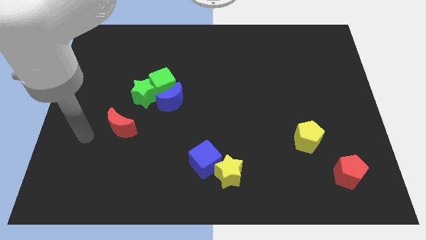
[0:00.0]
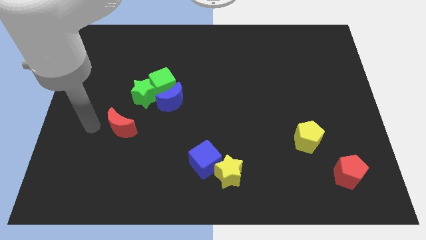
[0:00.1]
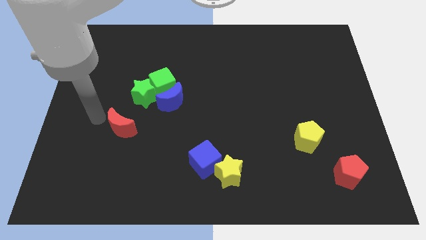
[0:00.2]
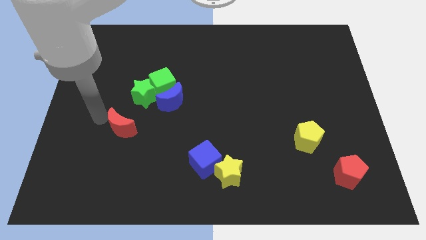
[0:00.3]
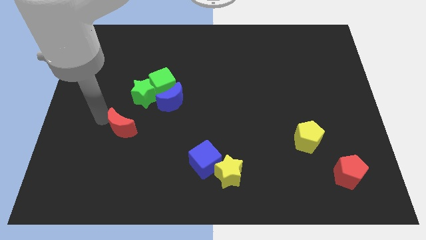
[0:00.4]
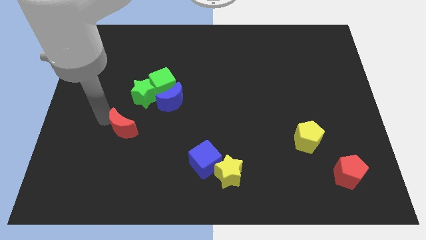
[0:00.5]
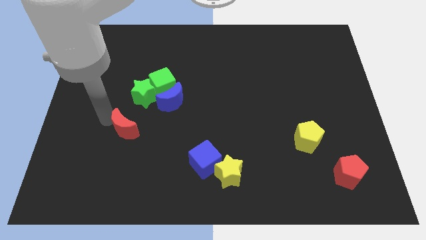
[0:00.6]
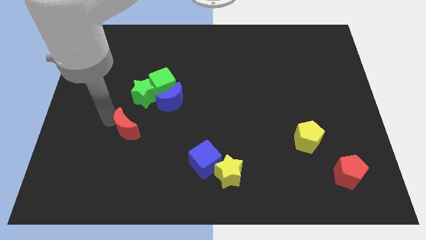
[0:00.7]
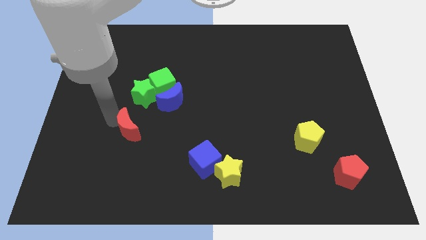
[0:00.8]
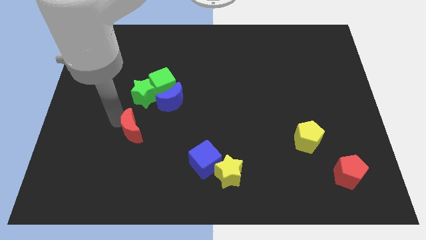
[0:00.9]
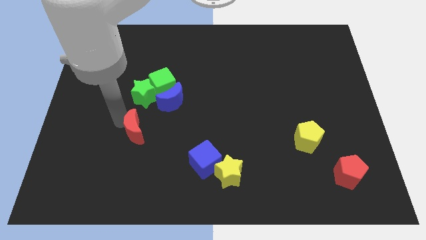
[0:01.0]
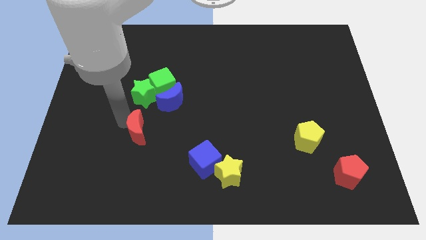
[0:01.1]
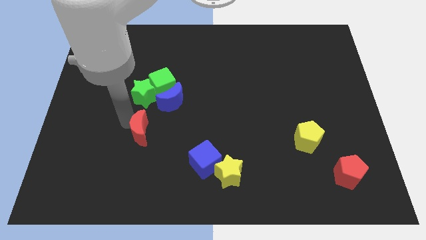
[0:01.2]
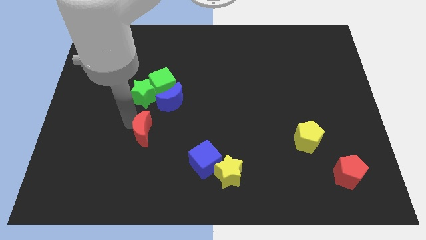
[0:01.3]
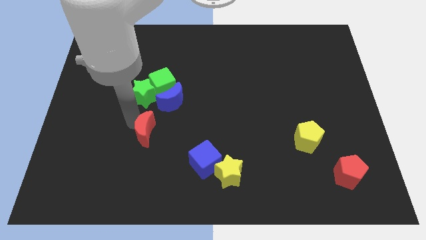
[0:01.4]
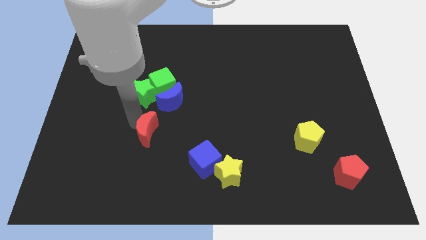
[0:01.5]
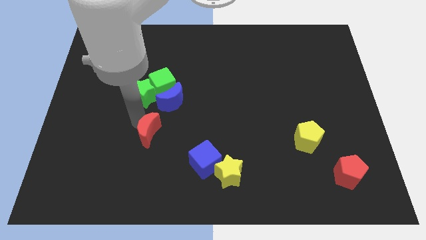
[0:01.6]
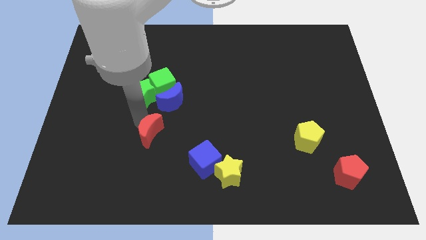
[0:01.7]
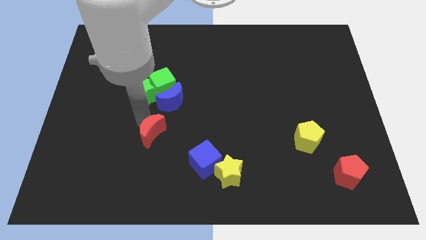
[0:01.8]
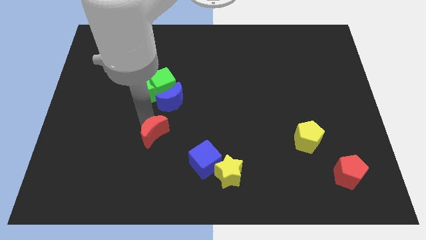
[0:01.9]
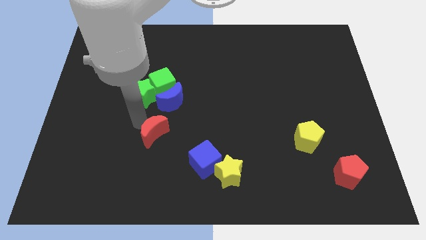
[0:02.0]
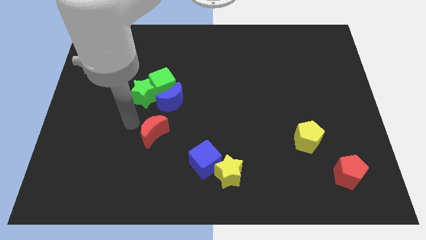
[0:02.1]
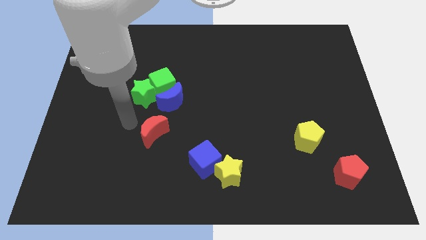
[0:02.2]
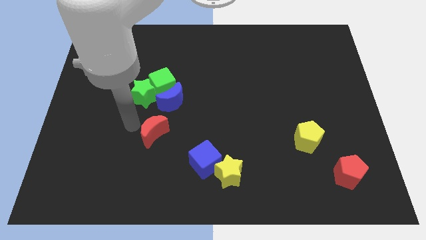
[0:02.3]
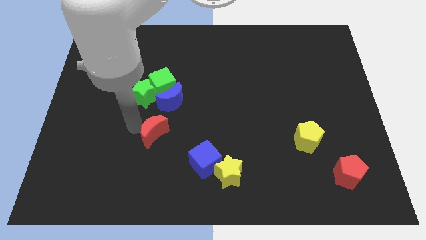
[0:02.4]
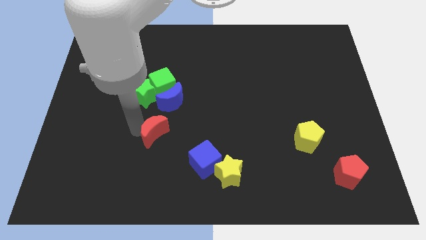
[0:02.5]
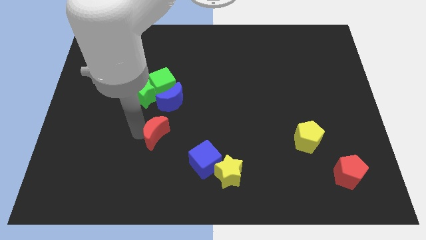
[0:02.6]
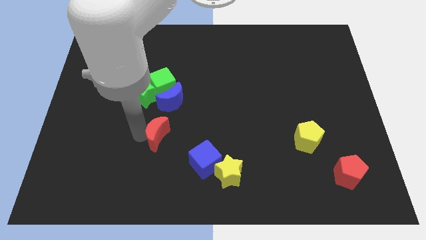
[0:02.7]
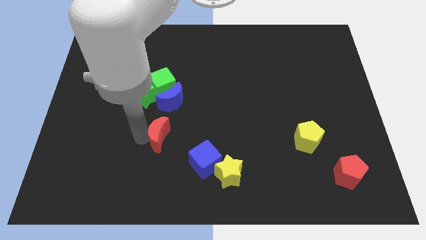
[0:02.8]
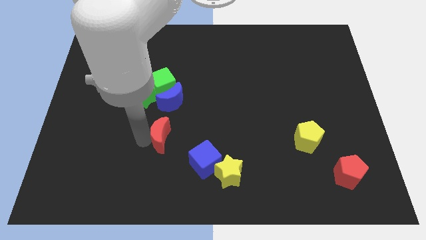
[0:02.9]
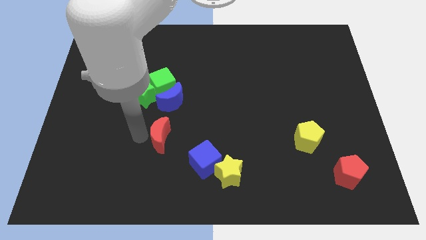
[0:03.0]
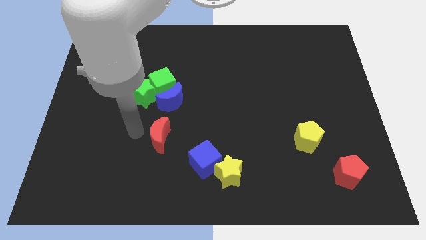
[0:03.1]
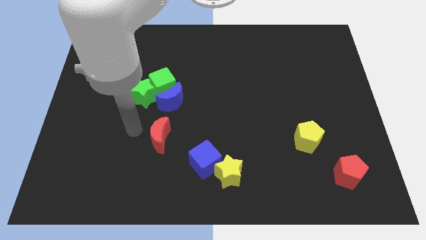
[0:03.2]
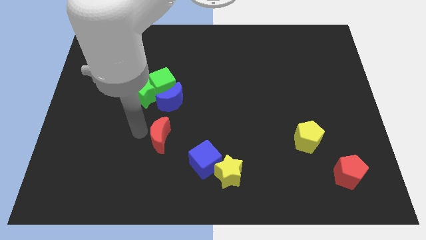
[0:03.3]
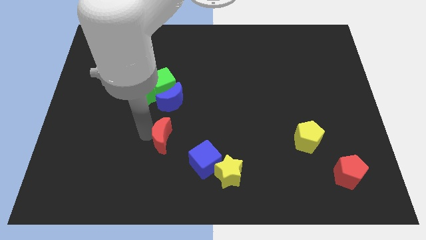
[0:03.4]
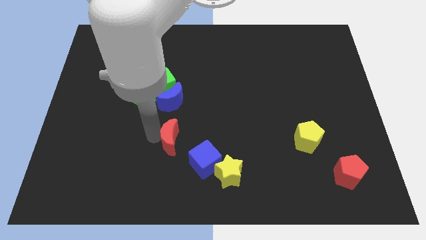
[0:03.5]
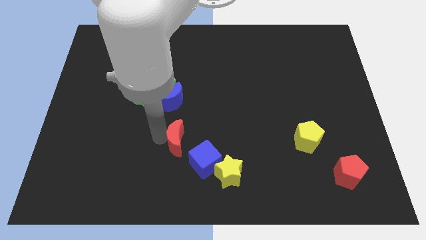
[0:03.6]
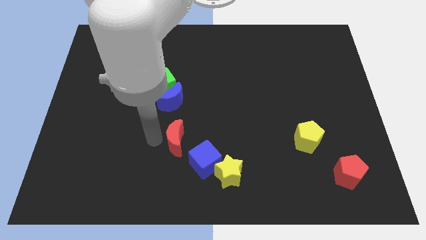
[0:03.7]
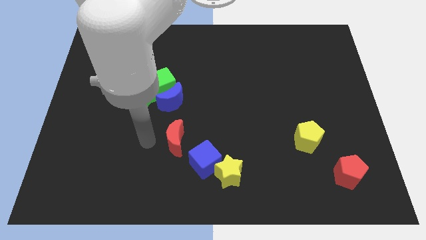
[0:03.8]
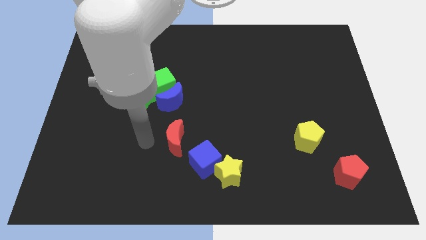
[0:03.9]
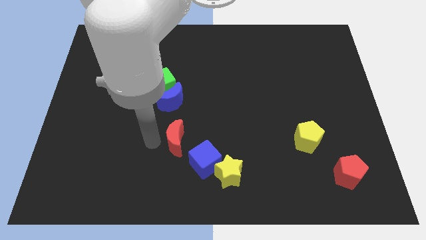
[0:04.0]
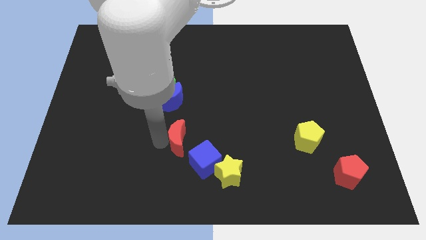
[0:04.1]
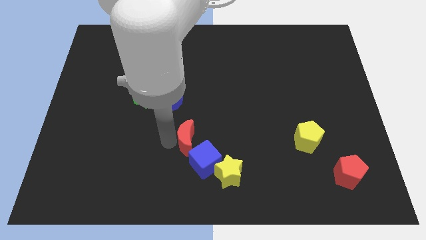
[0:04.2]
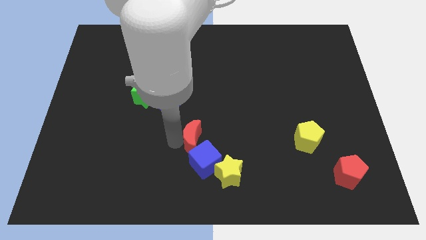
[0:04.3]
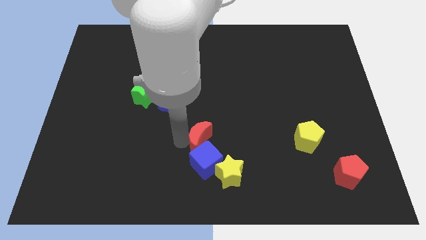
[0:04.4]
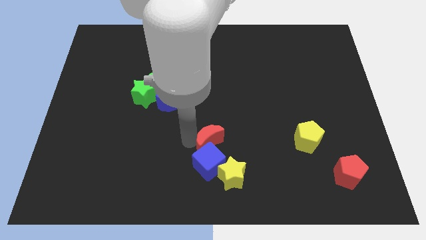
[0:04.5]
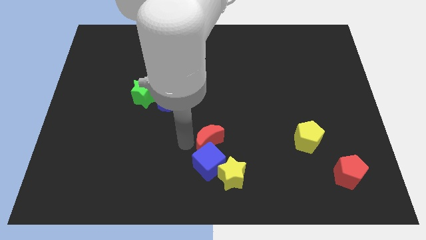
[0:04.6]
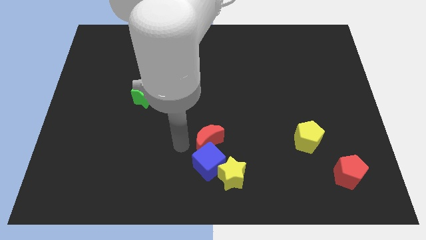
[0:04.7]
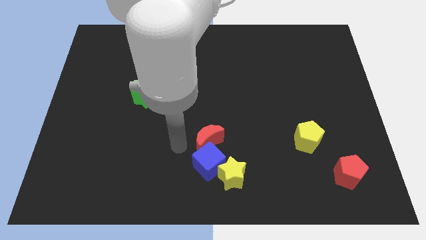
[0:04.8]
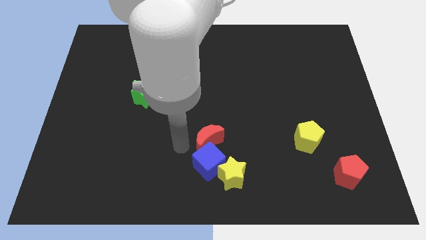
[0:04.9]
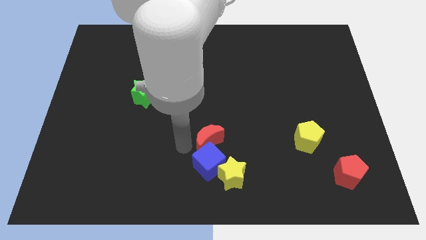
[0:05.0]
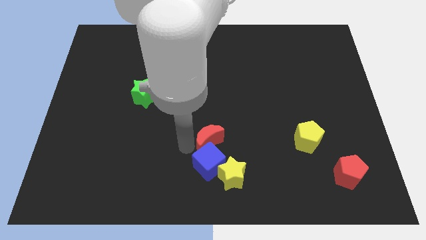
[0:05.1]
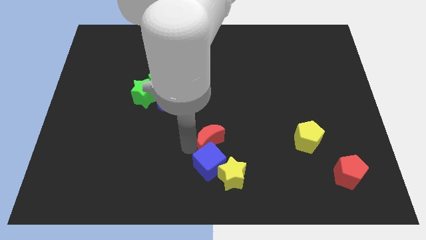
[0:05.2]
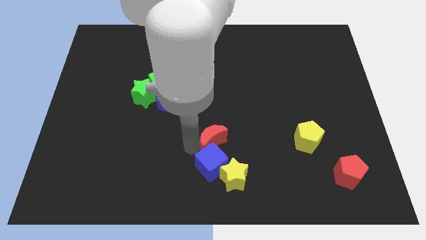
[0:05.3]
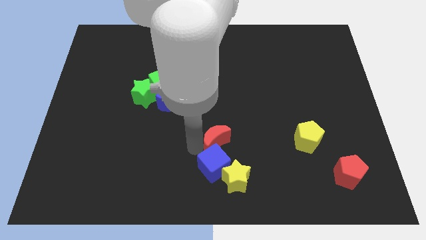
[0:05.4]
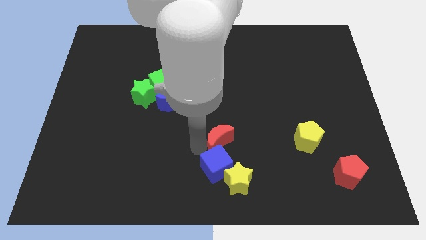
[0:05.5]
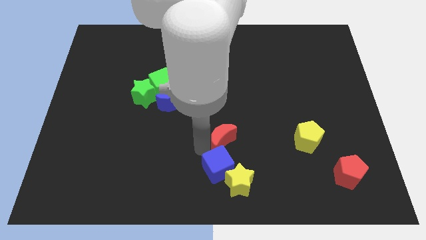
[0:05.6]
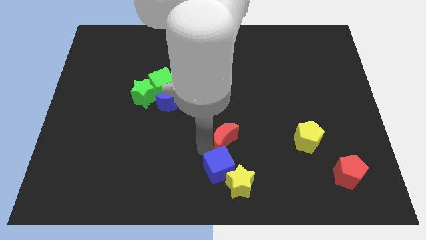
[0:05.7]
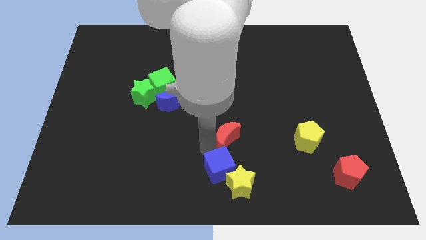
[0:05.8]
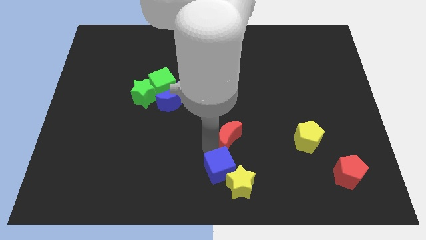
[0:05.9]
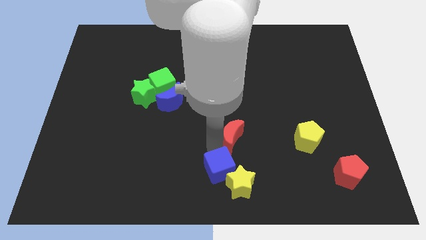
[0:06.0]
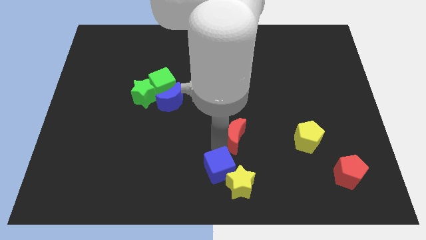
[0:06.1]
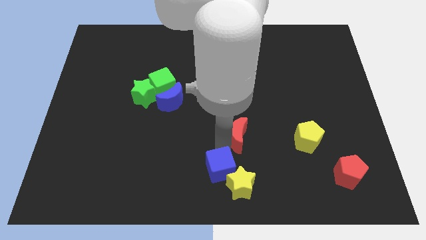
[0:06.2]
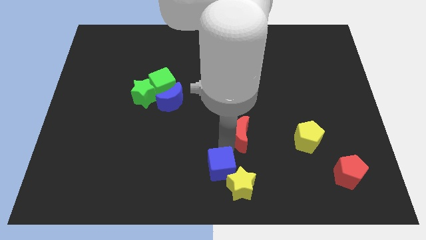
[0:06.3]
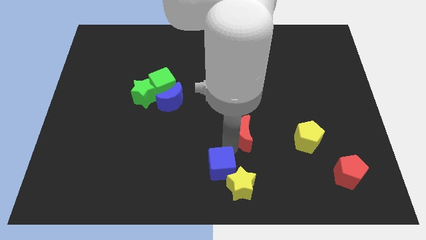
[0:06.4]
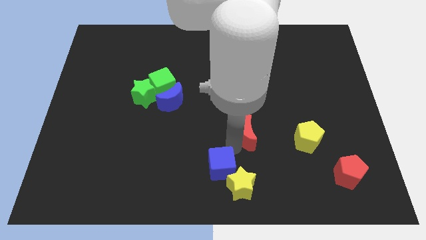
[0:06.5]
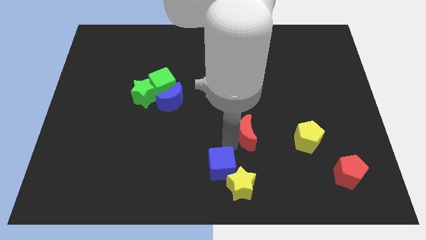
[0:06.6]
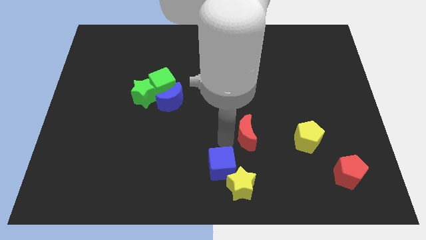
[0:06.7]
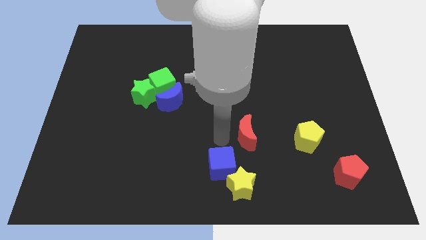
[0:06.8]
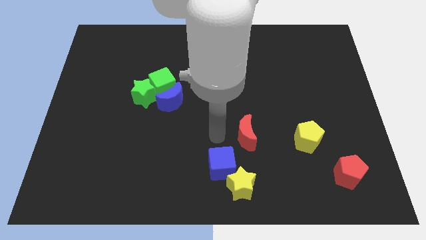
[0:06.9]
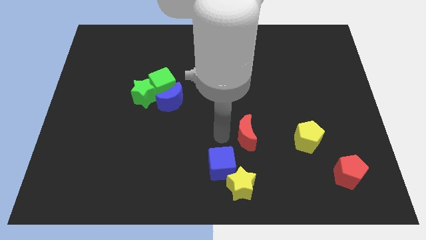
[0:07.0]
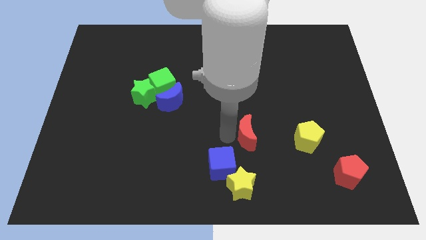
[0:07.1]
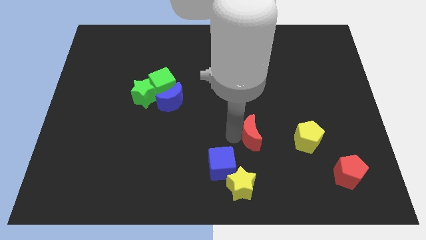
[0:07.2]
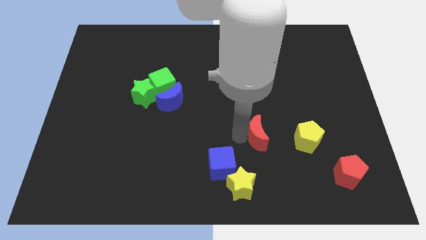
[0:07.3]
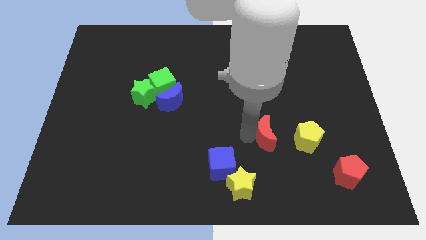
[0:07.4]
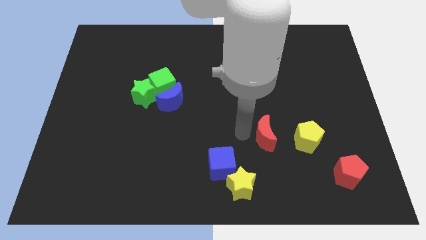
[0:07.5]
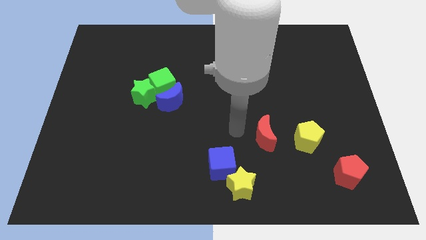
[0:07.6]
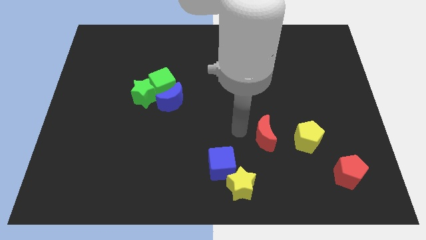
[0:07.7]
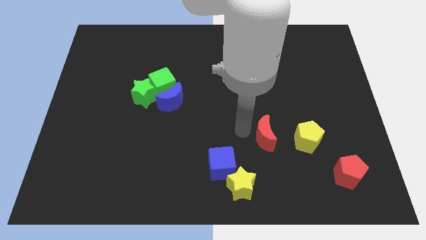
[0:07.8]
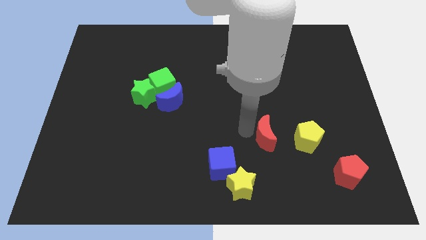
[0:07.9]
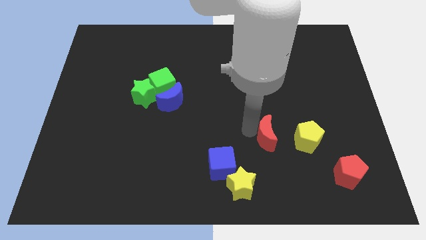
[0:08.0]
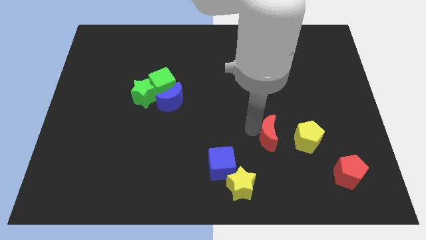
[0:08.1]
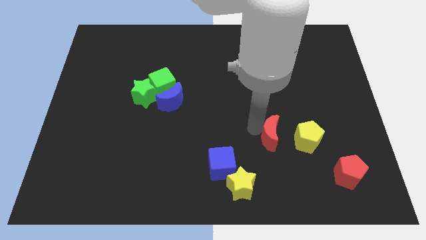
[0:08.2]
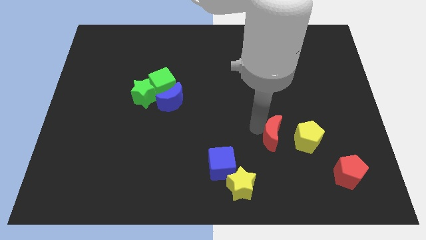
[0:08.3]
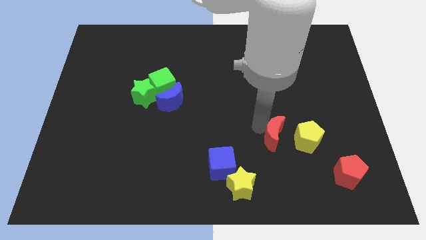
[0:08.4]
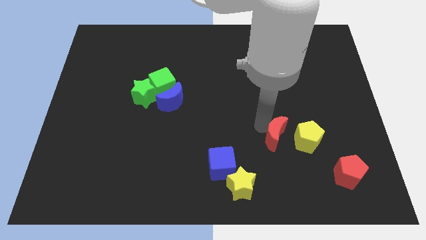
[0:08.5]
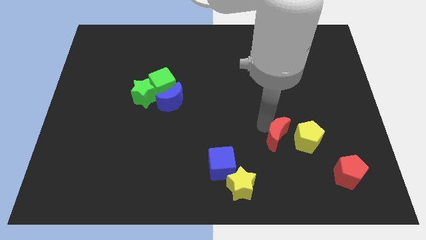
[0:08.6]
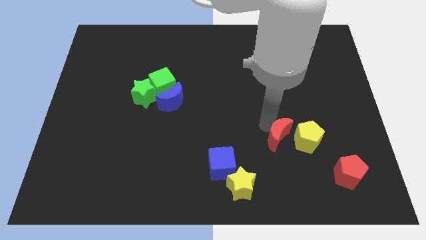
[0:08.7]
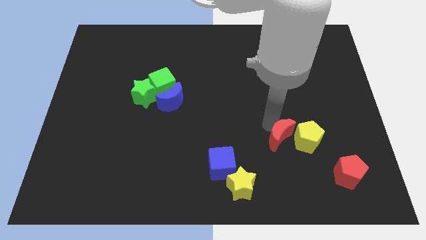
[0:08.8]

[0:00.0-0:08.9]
slide the red moon towards the yellow pentagon
